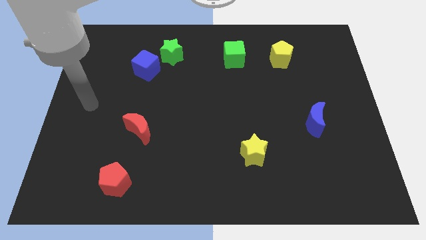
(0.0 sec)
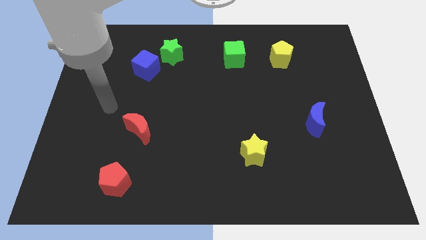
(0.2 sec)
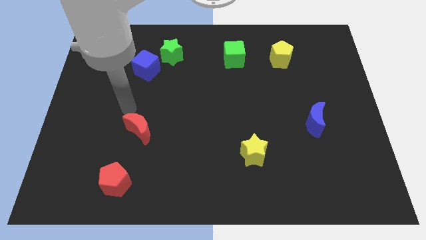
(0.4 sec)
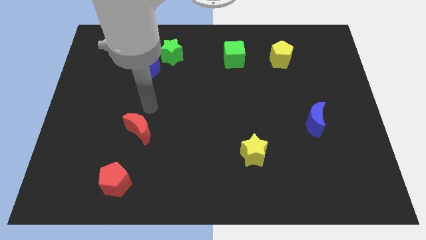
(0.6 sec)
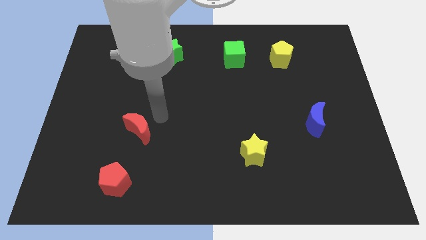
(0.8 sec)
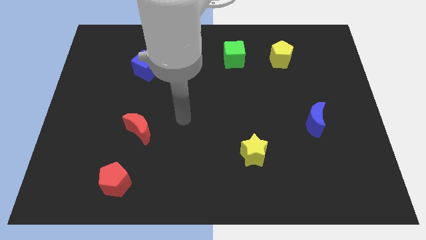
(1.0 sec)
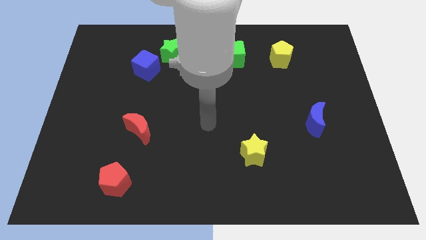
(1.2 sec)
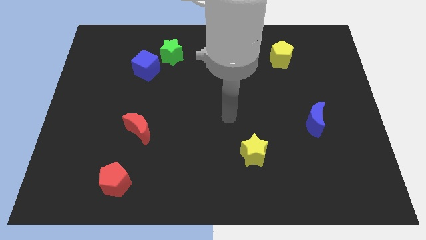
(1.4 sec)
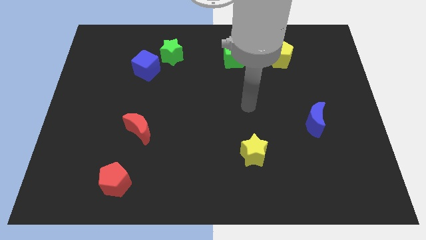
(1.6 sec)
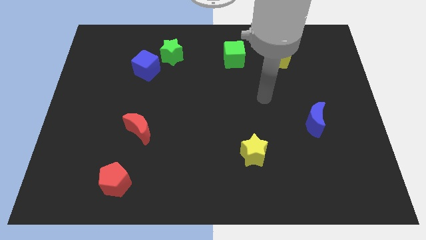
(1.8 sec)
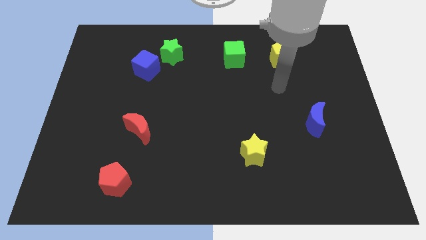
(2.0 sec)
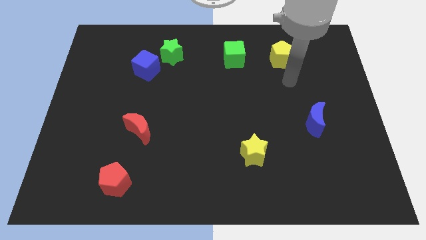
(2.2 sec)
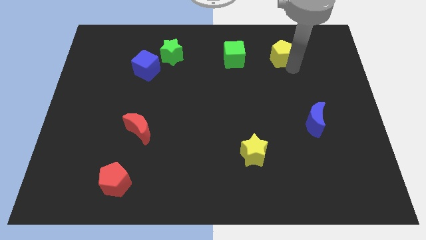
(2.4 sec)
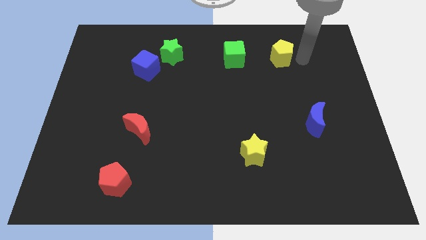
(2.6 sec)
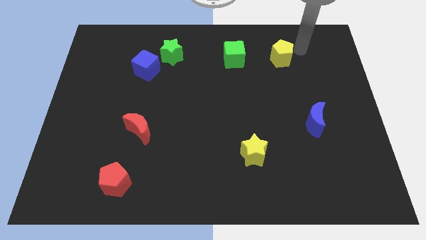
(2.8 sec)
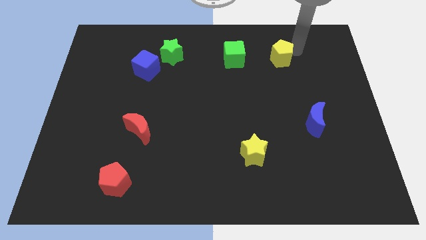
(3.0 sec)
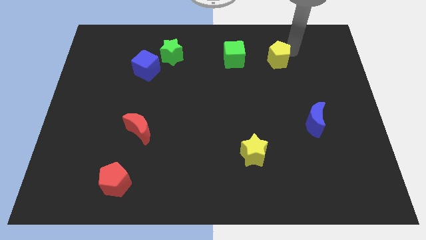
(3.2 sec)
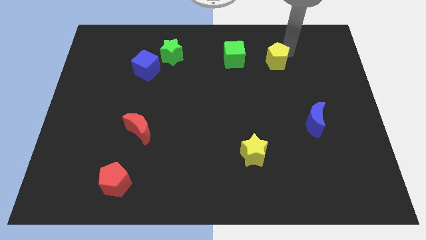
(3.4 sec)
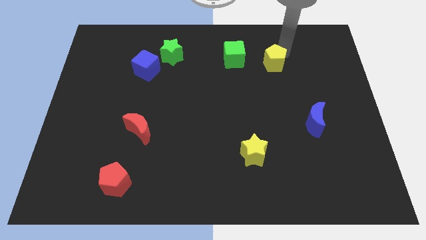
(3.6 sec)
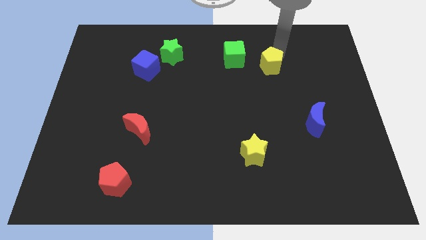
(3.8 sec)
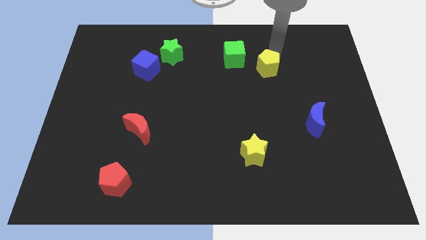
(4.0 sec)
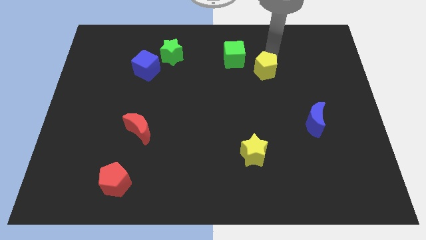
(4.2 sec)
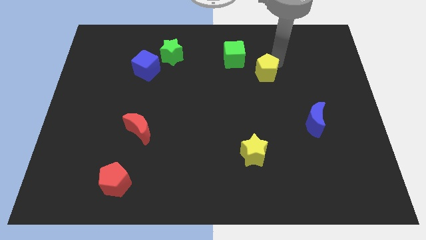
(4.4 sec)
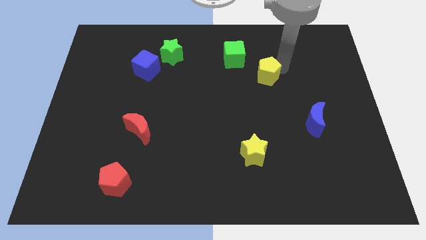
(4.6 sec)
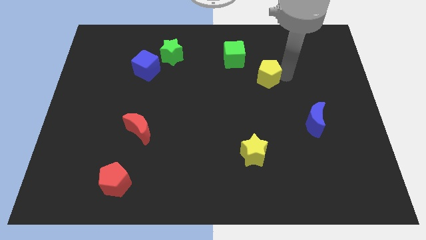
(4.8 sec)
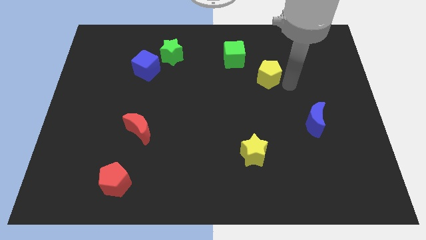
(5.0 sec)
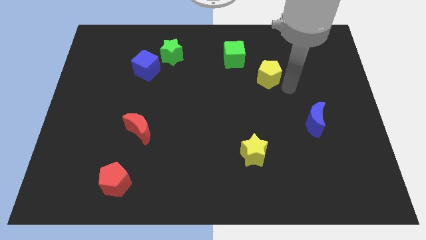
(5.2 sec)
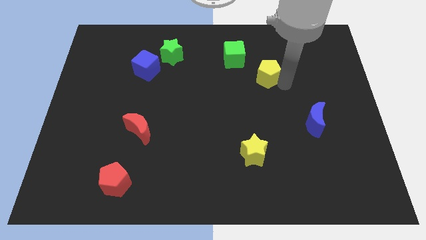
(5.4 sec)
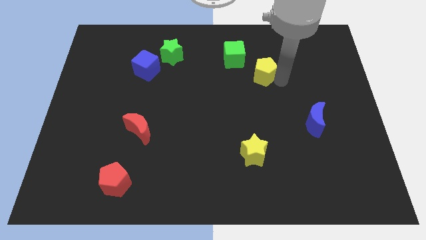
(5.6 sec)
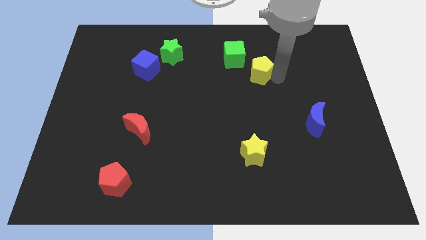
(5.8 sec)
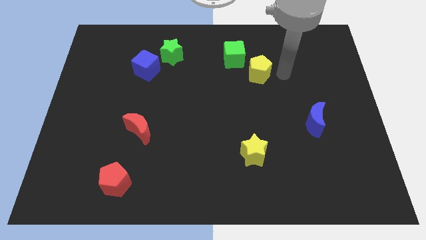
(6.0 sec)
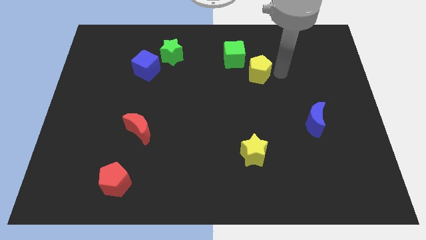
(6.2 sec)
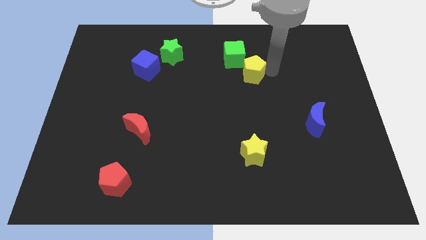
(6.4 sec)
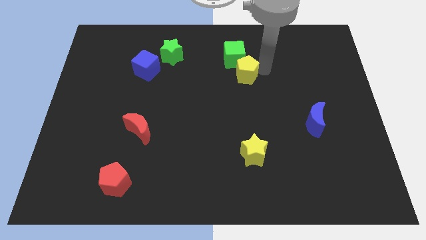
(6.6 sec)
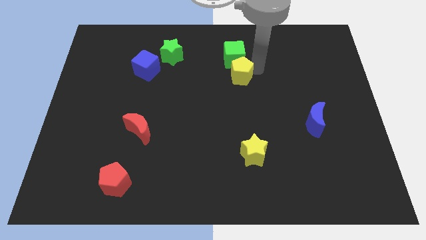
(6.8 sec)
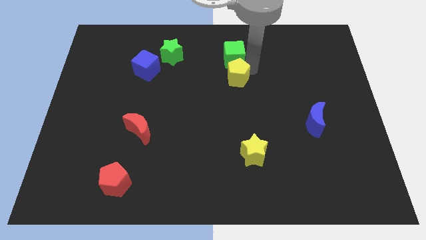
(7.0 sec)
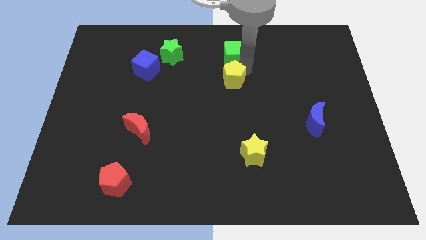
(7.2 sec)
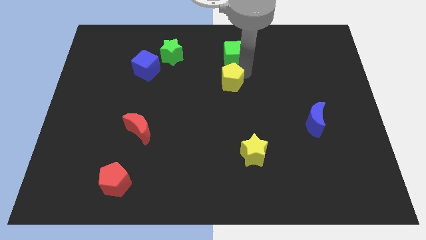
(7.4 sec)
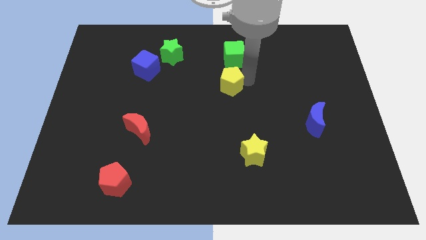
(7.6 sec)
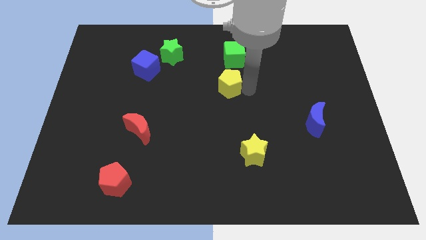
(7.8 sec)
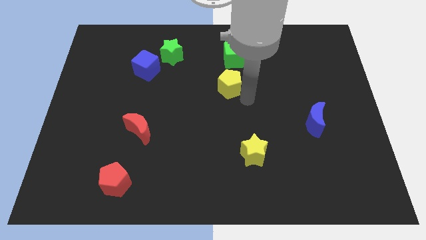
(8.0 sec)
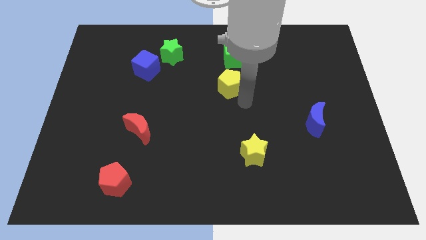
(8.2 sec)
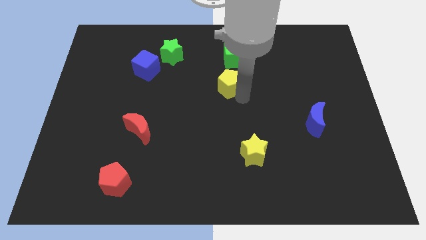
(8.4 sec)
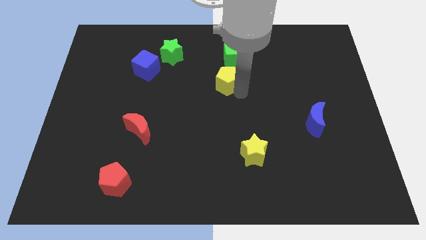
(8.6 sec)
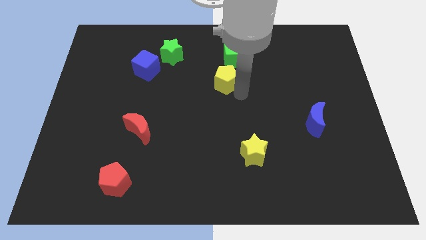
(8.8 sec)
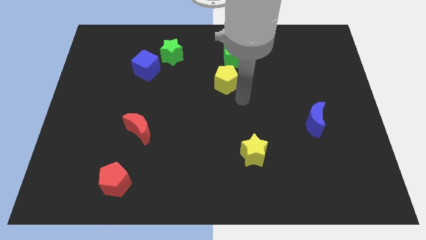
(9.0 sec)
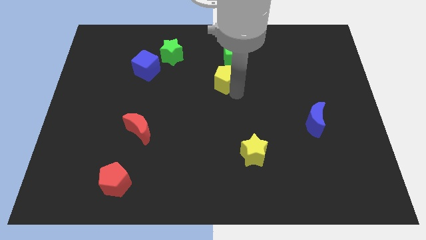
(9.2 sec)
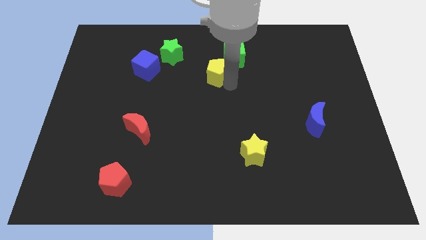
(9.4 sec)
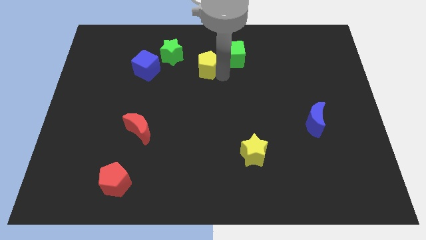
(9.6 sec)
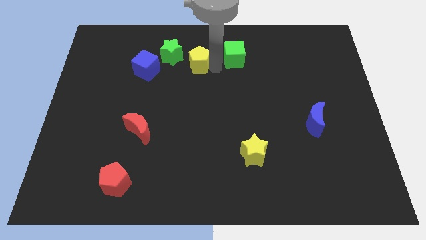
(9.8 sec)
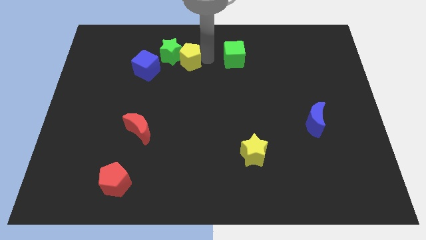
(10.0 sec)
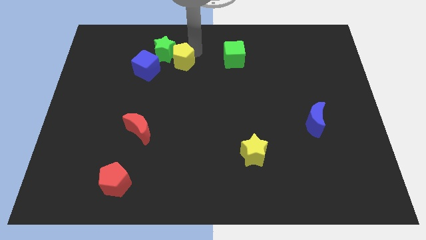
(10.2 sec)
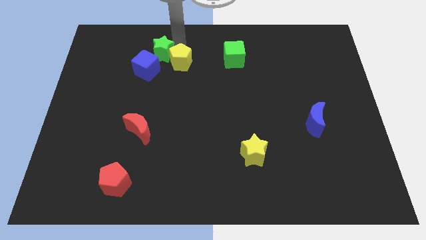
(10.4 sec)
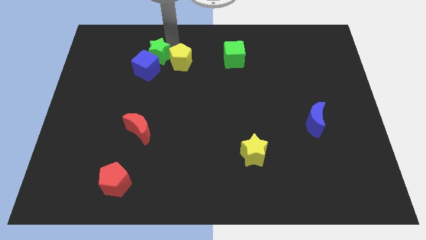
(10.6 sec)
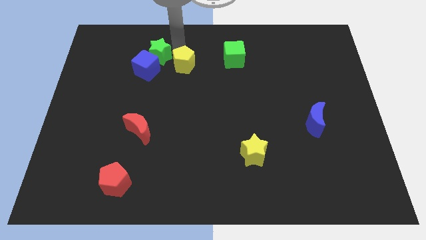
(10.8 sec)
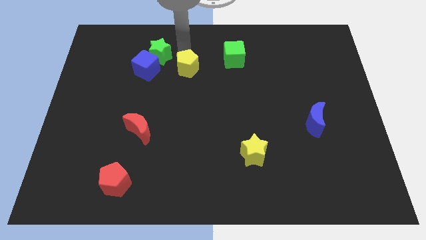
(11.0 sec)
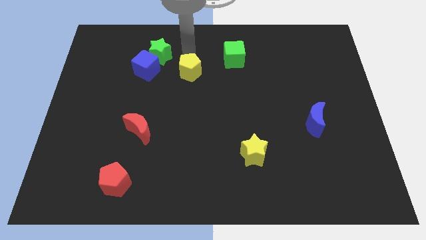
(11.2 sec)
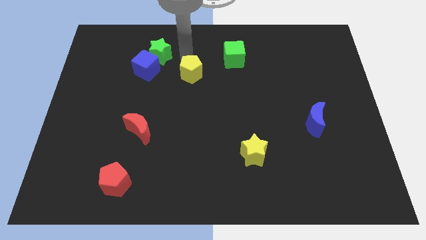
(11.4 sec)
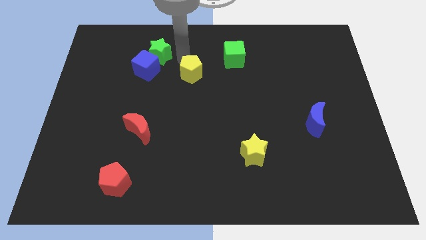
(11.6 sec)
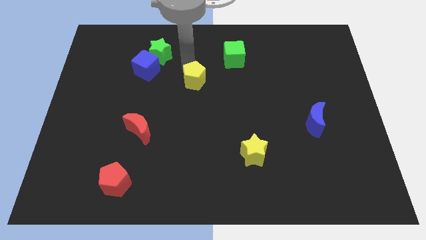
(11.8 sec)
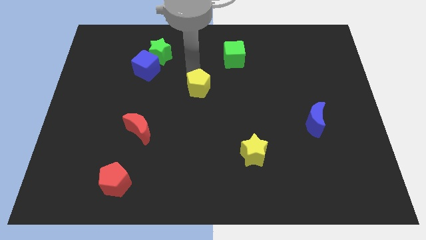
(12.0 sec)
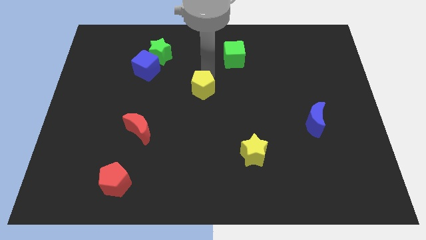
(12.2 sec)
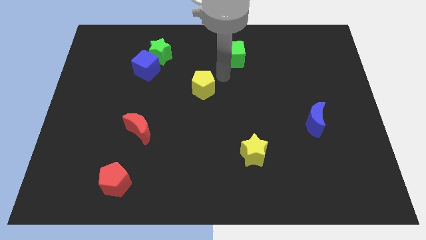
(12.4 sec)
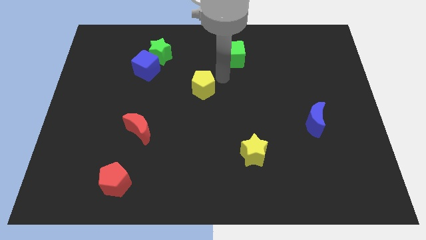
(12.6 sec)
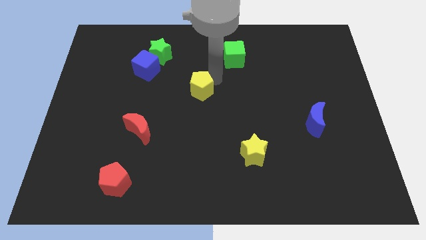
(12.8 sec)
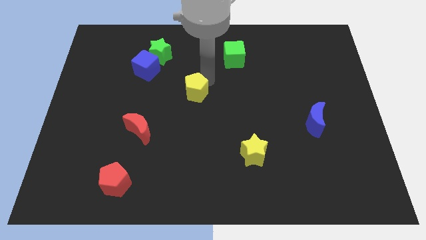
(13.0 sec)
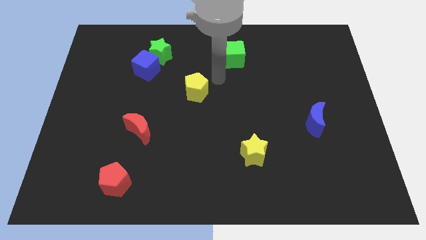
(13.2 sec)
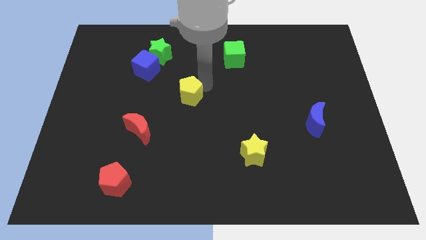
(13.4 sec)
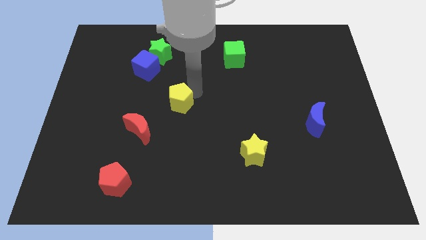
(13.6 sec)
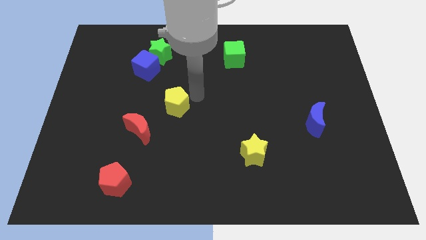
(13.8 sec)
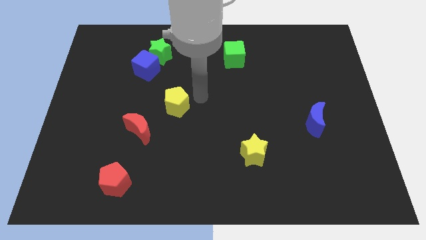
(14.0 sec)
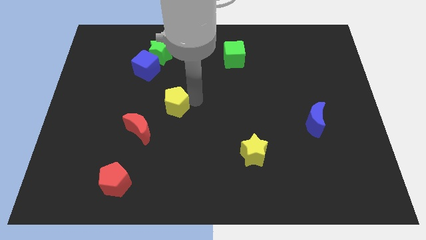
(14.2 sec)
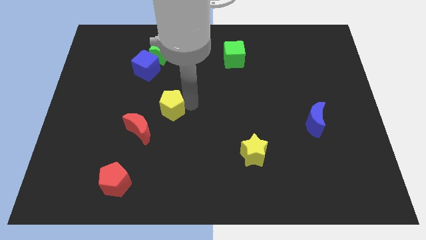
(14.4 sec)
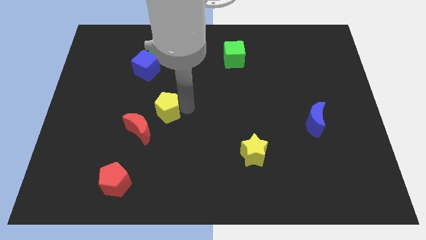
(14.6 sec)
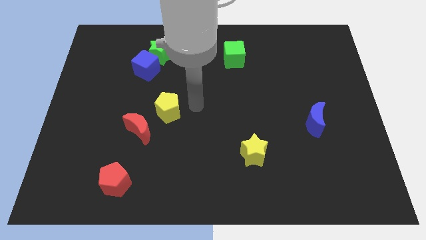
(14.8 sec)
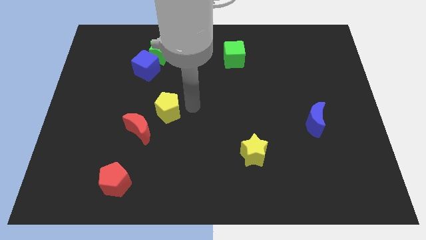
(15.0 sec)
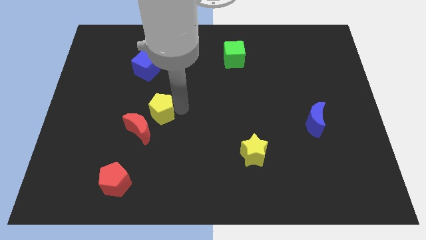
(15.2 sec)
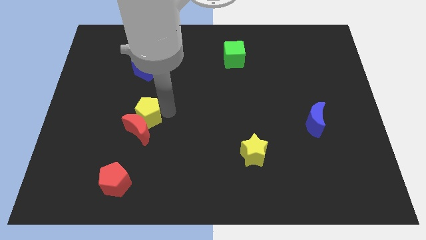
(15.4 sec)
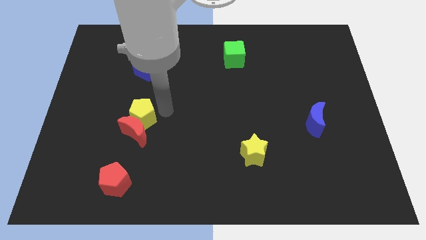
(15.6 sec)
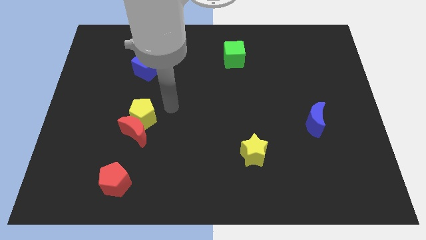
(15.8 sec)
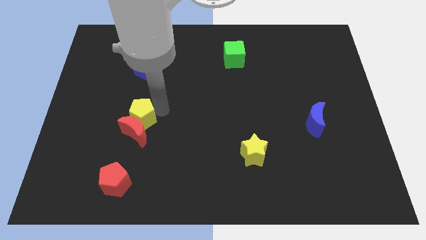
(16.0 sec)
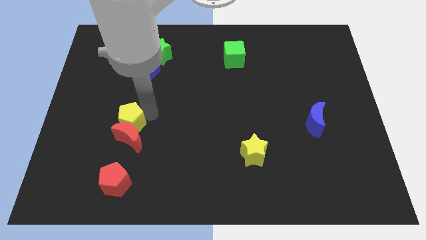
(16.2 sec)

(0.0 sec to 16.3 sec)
put the yellow pentagon to the top side of the red pentagon
